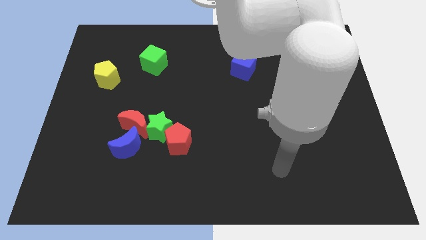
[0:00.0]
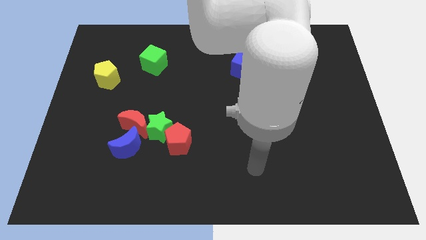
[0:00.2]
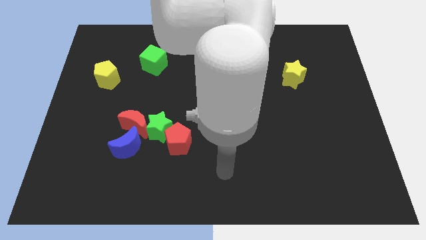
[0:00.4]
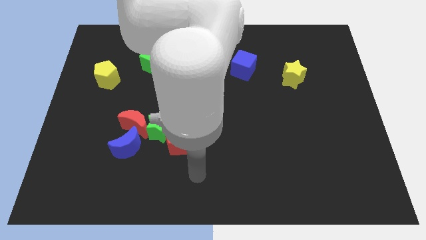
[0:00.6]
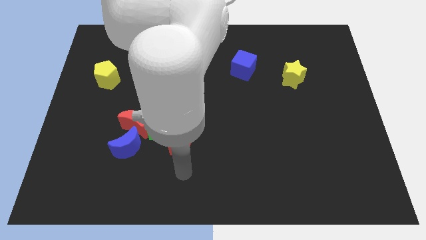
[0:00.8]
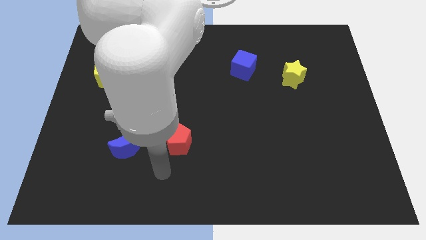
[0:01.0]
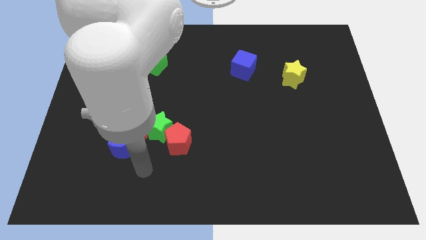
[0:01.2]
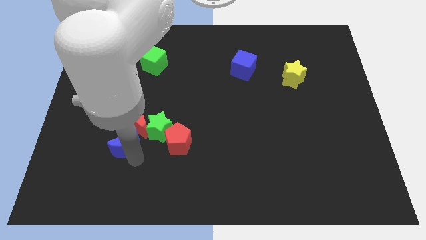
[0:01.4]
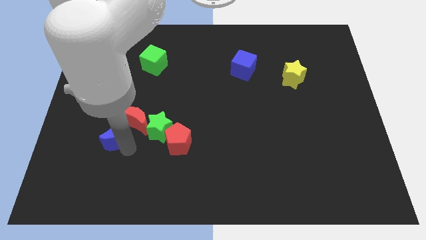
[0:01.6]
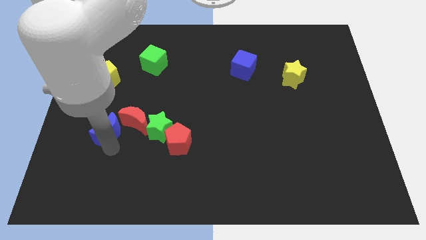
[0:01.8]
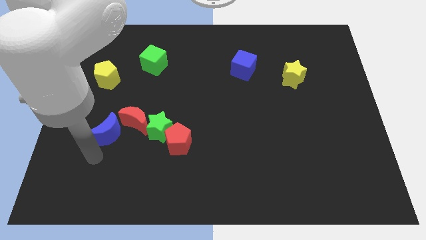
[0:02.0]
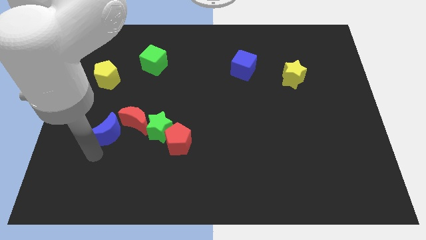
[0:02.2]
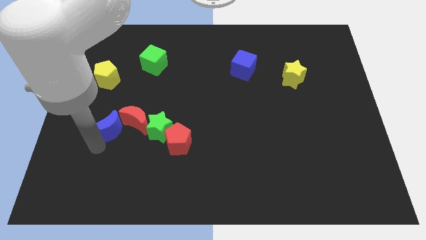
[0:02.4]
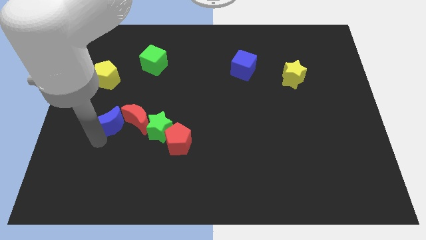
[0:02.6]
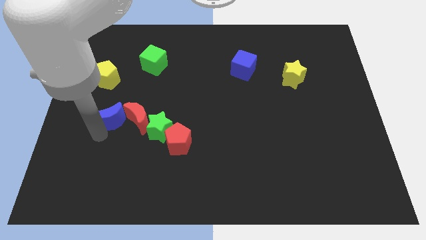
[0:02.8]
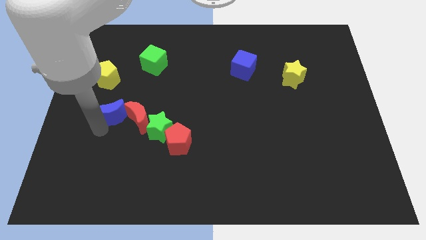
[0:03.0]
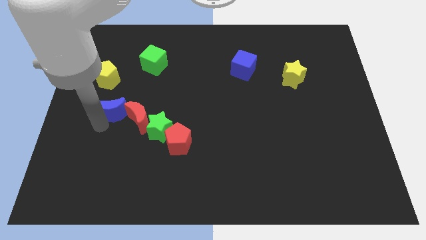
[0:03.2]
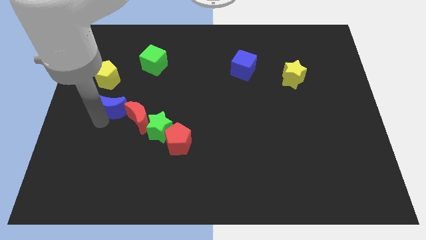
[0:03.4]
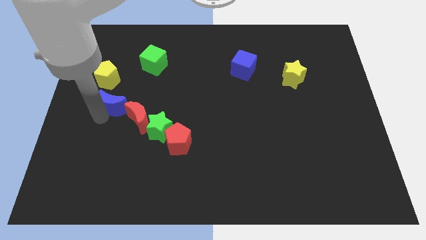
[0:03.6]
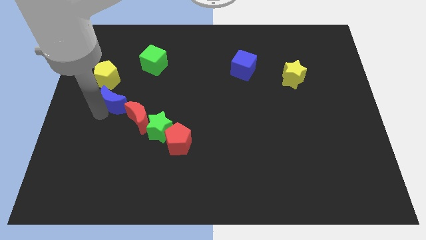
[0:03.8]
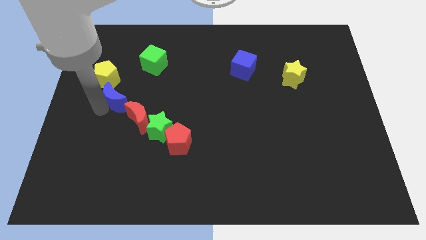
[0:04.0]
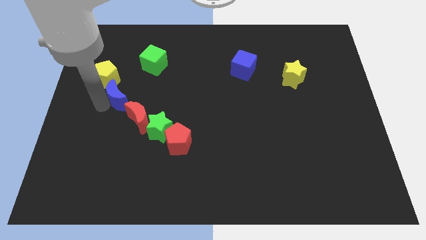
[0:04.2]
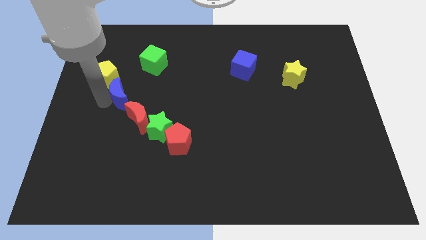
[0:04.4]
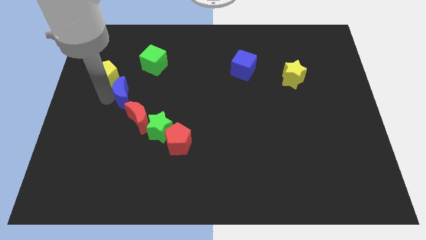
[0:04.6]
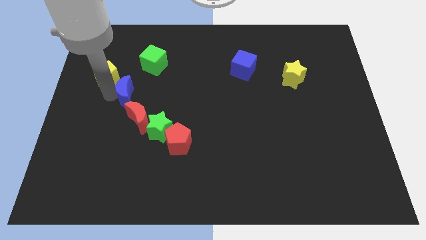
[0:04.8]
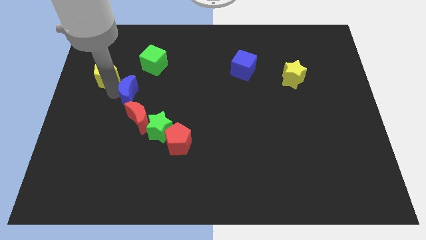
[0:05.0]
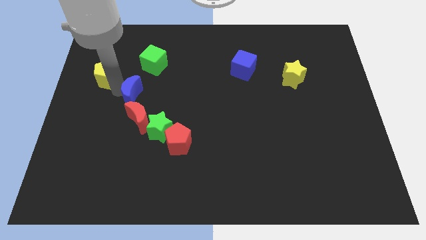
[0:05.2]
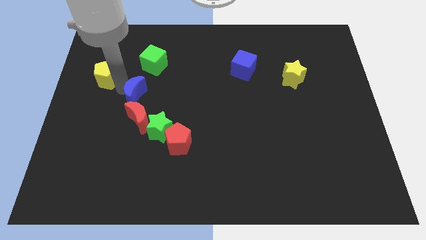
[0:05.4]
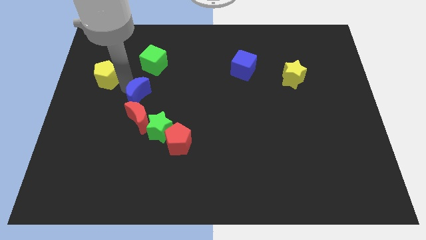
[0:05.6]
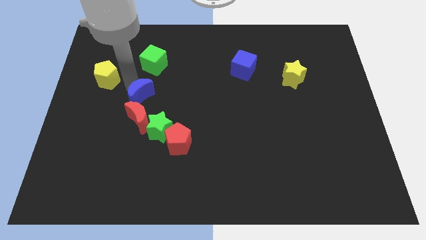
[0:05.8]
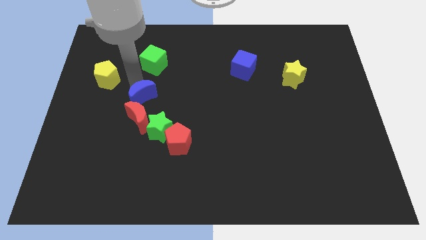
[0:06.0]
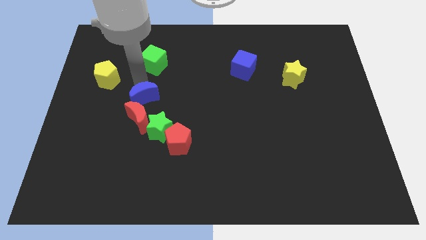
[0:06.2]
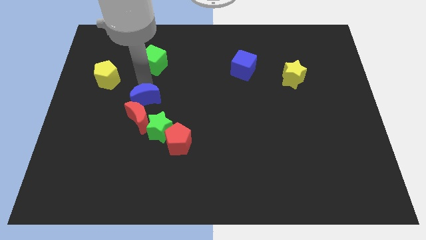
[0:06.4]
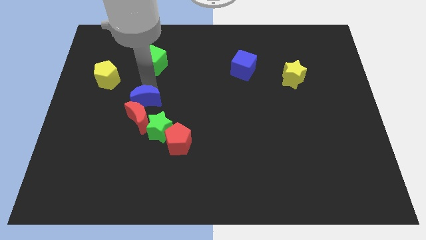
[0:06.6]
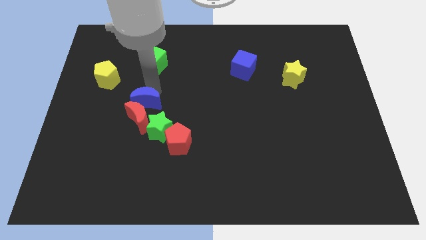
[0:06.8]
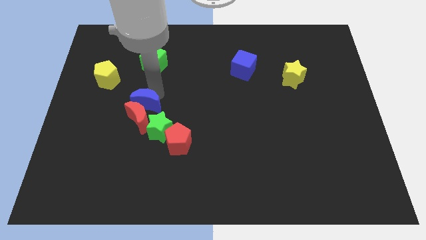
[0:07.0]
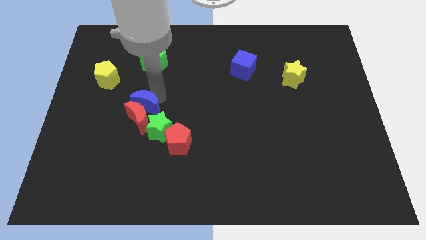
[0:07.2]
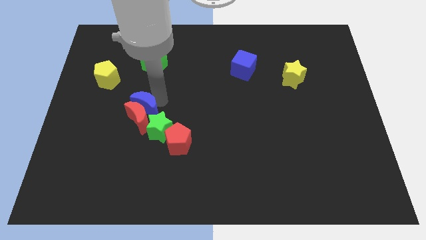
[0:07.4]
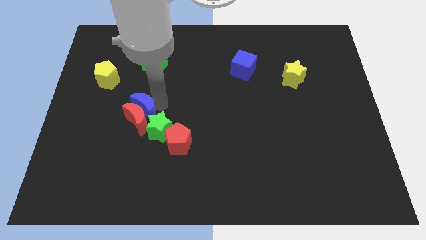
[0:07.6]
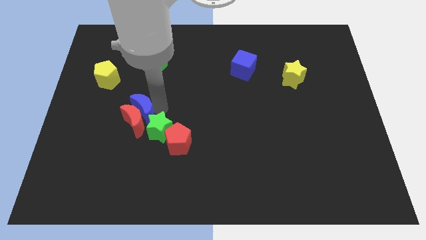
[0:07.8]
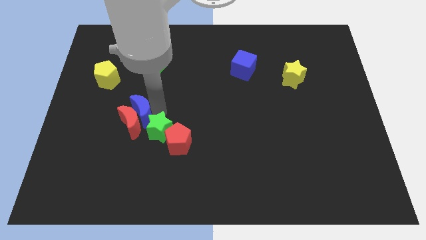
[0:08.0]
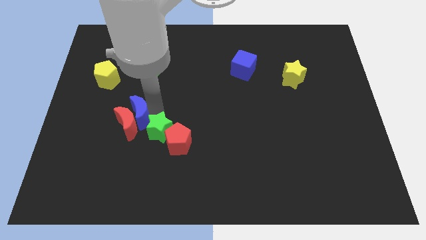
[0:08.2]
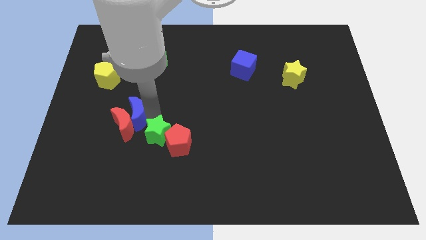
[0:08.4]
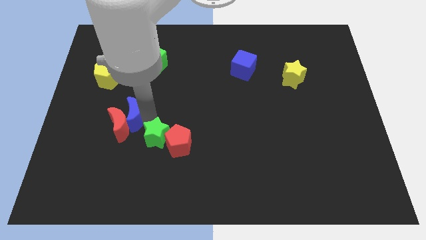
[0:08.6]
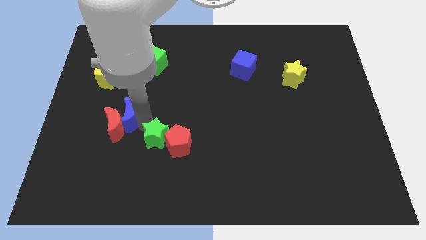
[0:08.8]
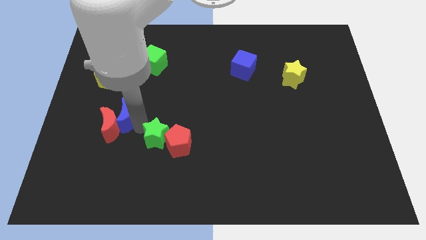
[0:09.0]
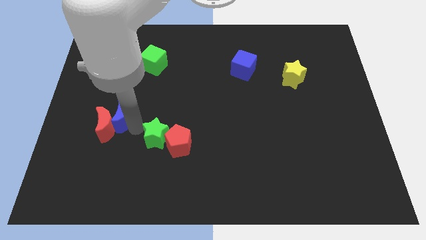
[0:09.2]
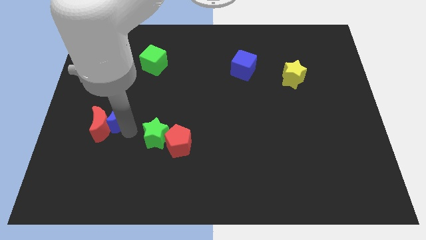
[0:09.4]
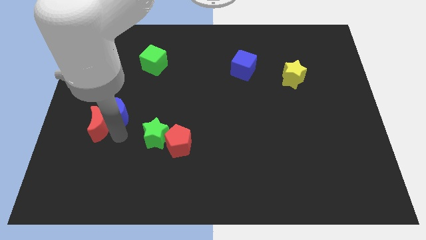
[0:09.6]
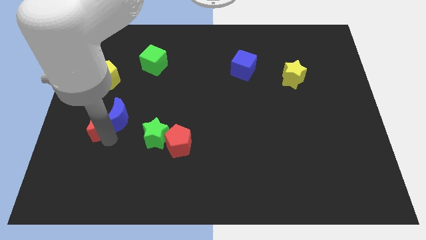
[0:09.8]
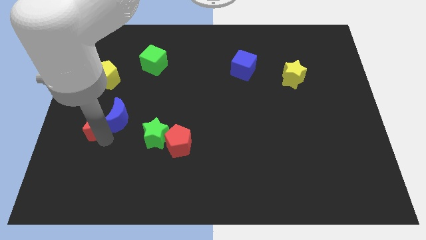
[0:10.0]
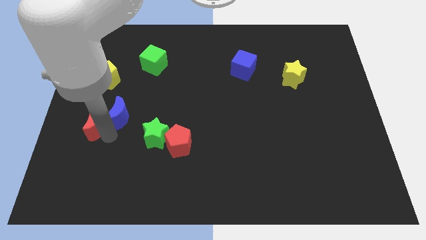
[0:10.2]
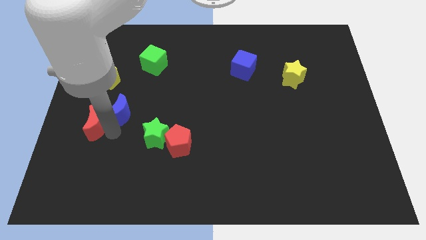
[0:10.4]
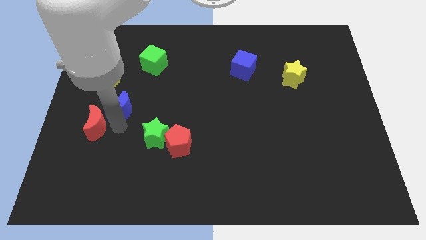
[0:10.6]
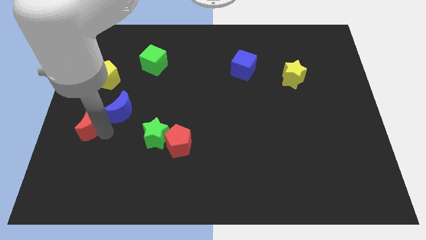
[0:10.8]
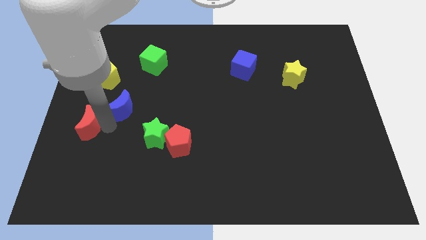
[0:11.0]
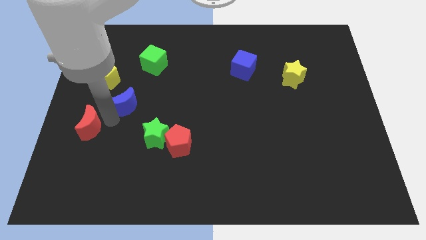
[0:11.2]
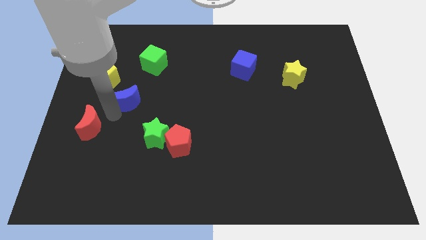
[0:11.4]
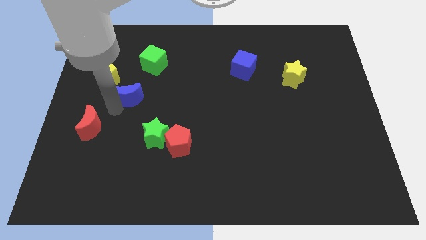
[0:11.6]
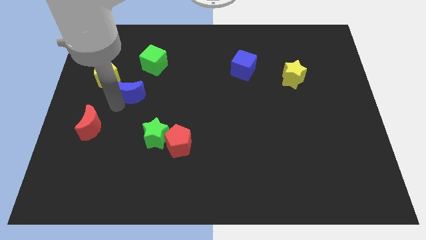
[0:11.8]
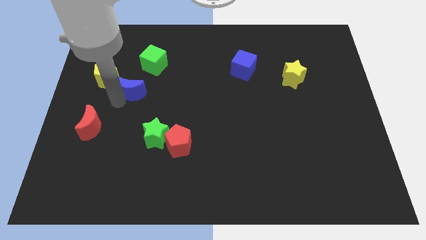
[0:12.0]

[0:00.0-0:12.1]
slide the blue moon right of the yellow pentagon

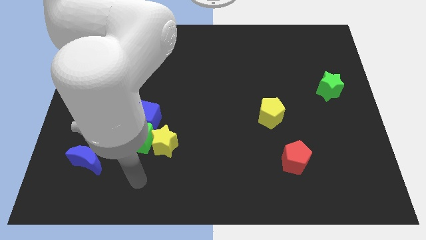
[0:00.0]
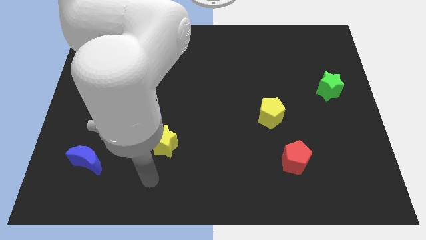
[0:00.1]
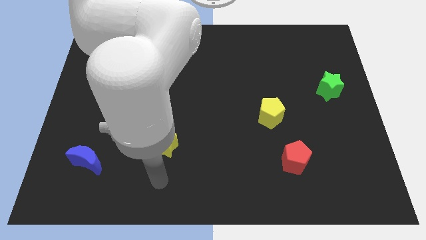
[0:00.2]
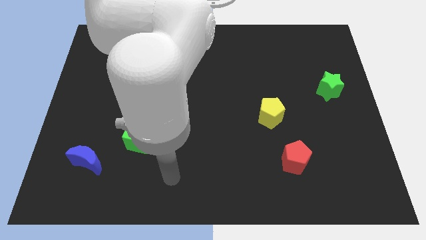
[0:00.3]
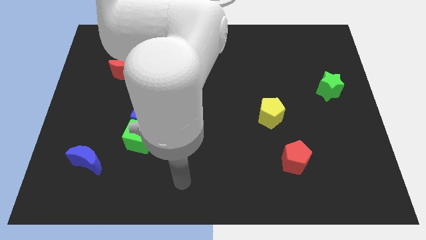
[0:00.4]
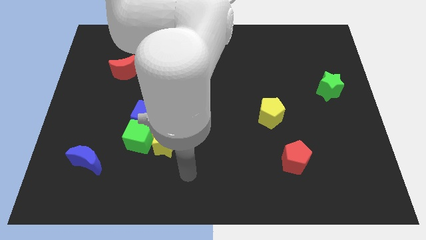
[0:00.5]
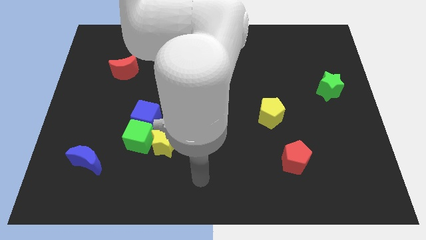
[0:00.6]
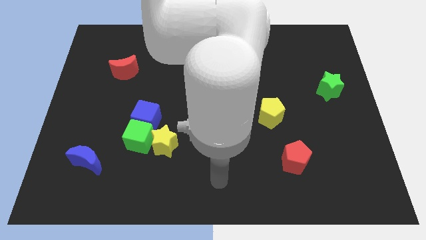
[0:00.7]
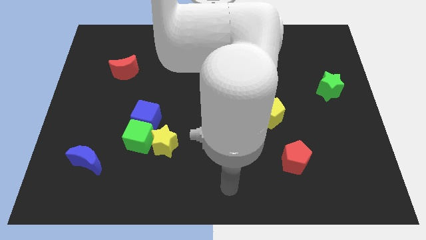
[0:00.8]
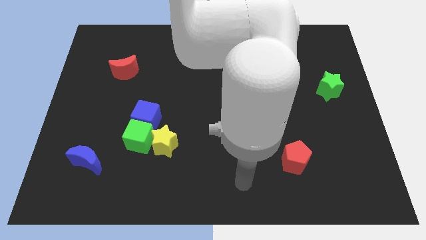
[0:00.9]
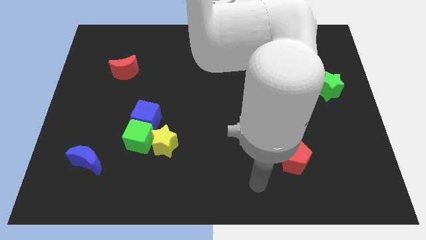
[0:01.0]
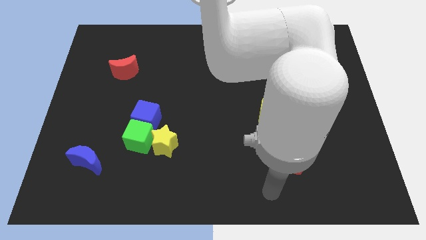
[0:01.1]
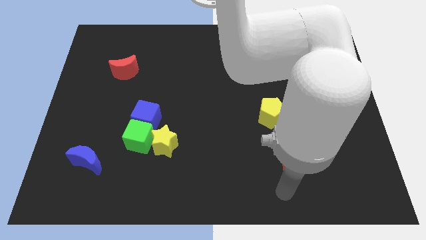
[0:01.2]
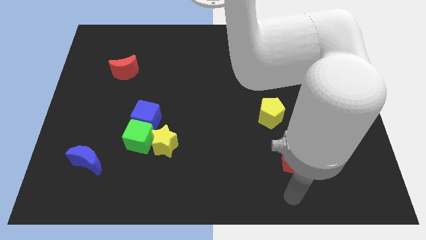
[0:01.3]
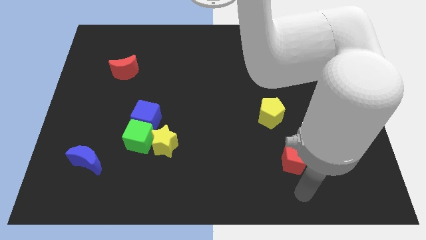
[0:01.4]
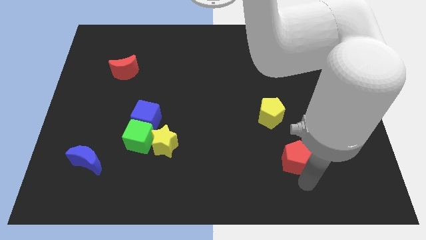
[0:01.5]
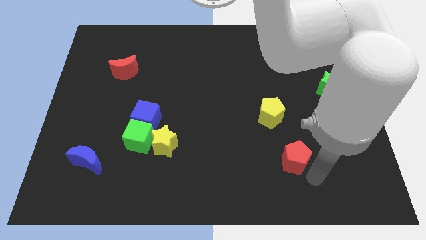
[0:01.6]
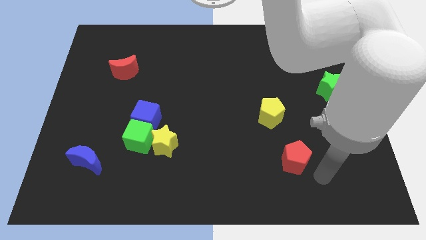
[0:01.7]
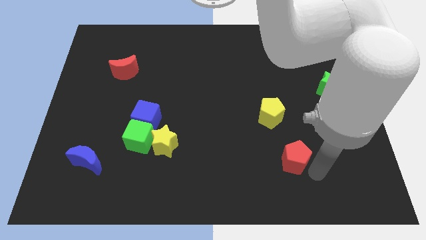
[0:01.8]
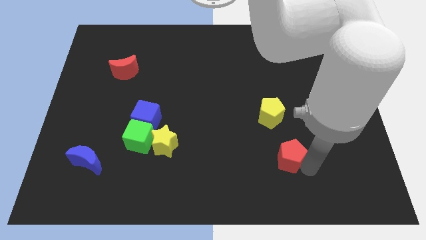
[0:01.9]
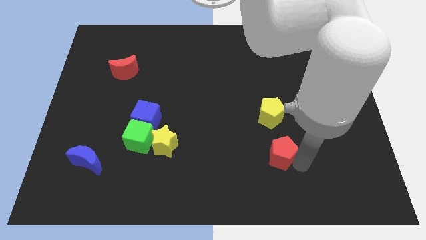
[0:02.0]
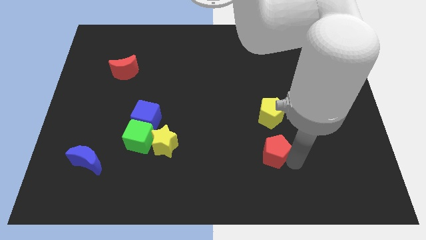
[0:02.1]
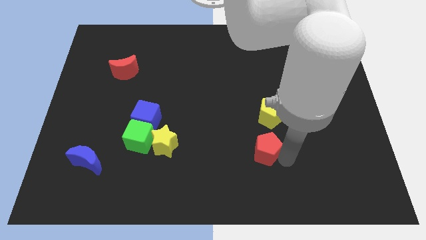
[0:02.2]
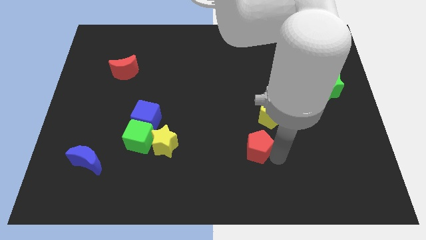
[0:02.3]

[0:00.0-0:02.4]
move the red pentagon to the bottom left of the yellow pentagon
